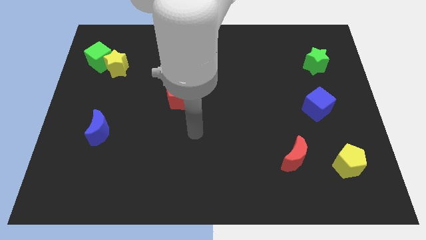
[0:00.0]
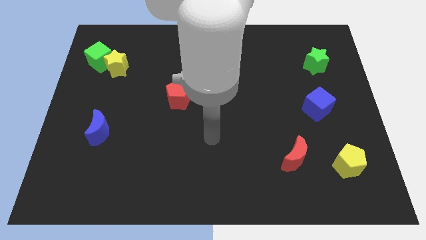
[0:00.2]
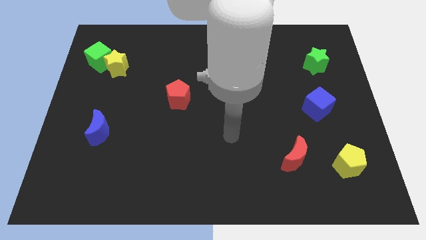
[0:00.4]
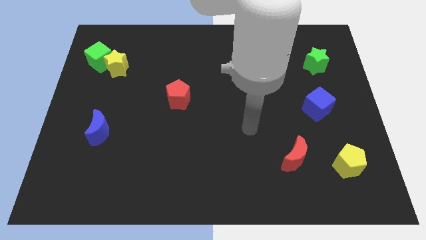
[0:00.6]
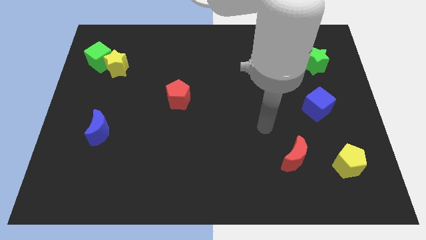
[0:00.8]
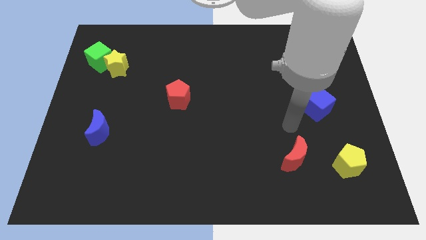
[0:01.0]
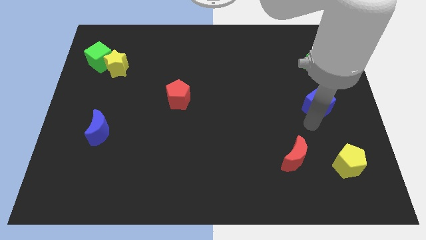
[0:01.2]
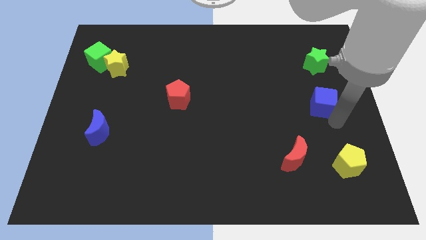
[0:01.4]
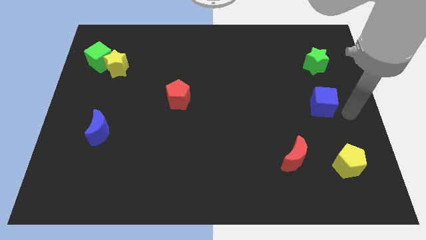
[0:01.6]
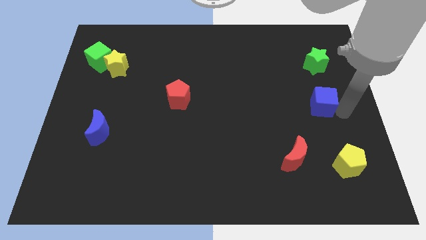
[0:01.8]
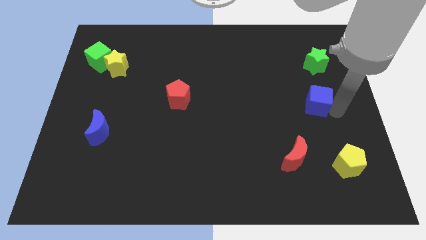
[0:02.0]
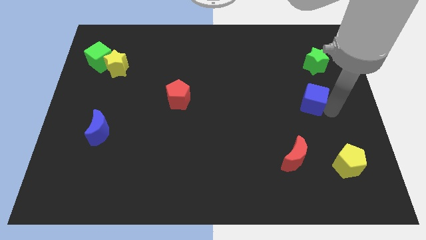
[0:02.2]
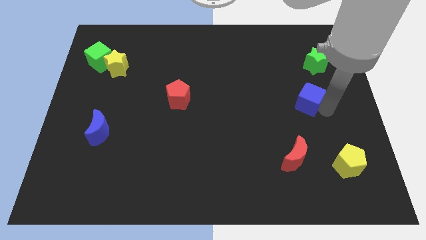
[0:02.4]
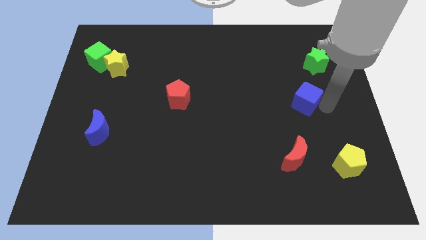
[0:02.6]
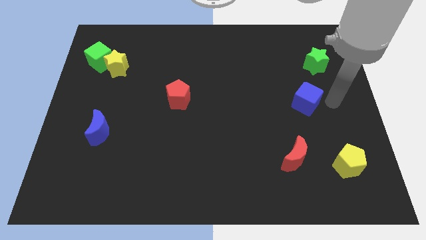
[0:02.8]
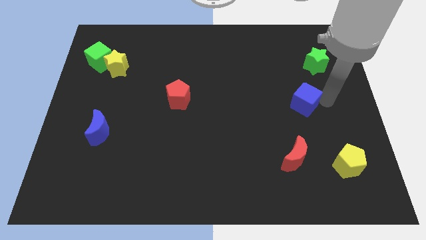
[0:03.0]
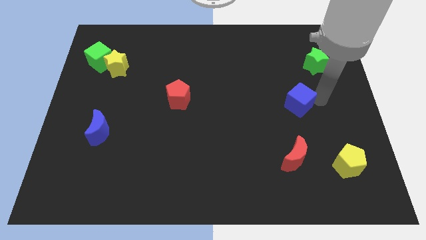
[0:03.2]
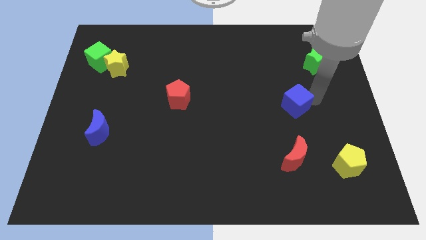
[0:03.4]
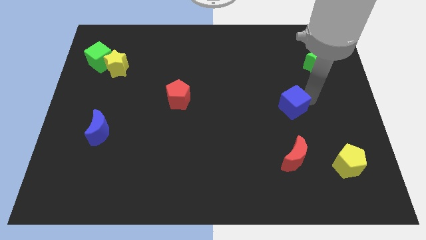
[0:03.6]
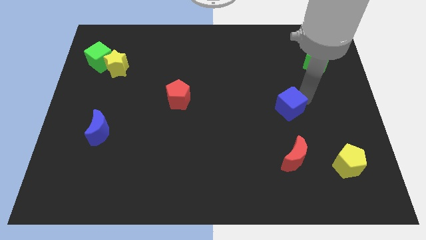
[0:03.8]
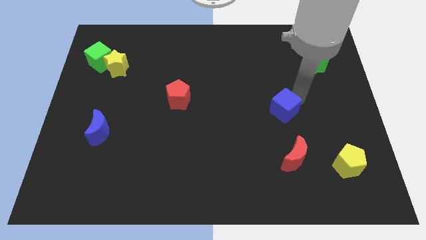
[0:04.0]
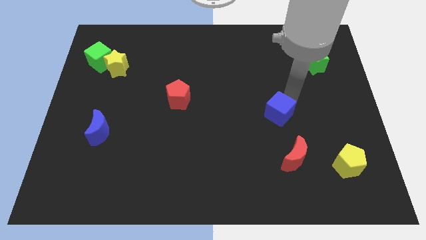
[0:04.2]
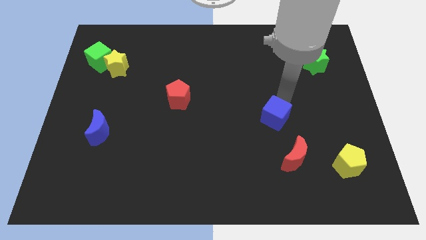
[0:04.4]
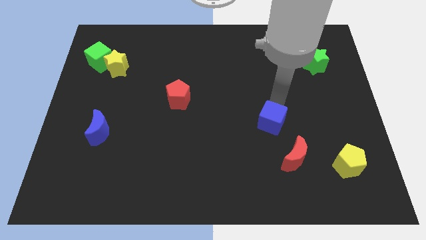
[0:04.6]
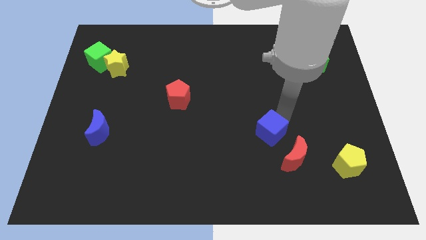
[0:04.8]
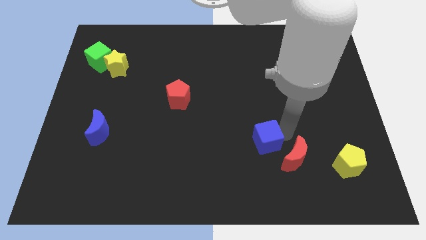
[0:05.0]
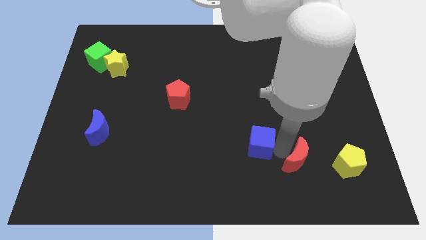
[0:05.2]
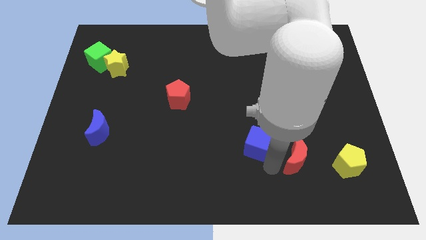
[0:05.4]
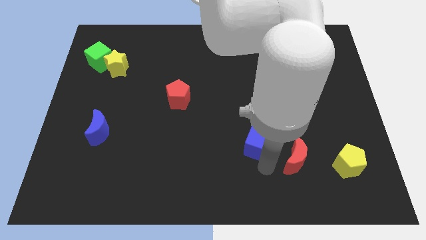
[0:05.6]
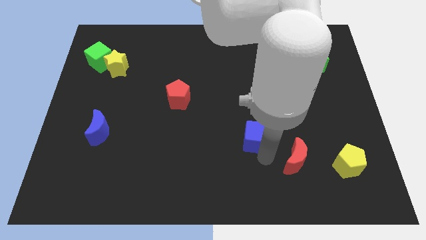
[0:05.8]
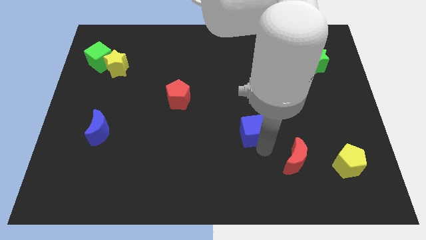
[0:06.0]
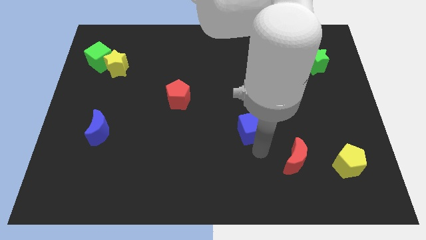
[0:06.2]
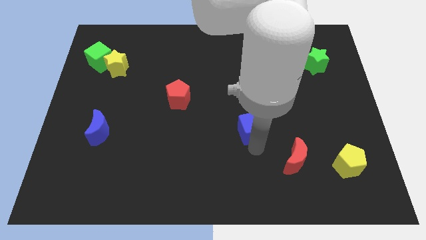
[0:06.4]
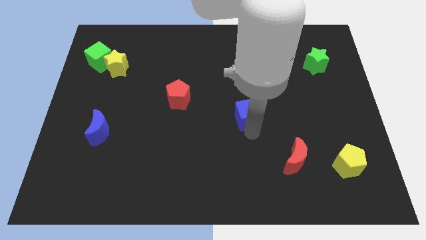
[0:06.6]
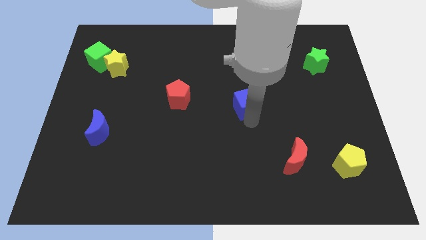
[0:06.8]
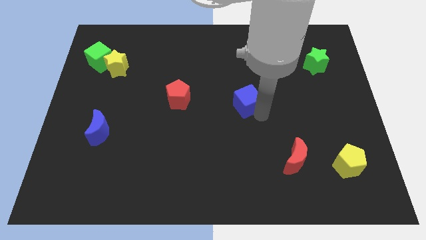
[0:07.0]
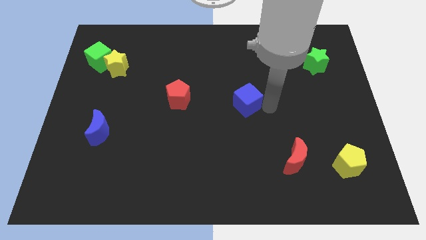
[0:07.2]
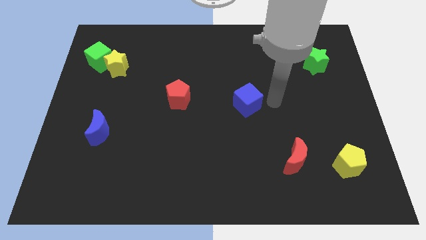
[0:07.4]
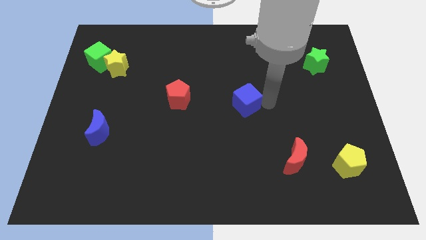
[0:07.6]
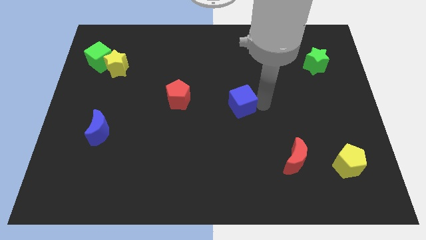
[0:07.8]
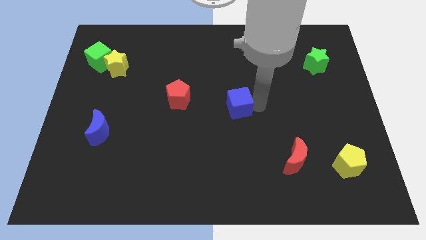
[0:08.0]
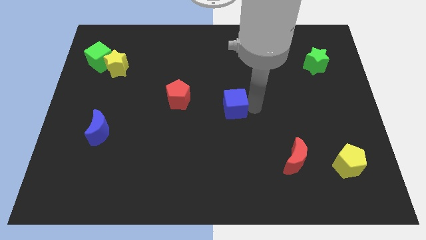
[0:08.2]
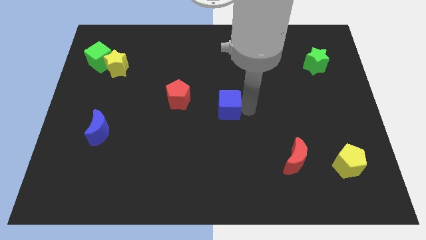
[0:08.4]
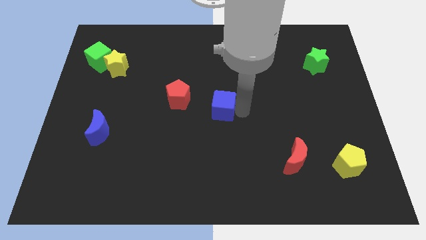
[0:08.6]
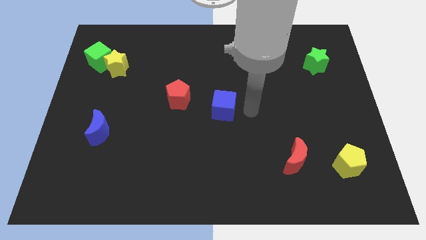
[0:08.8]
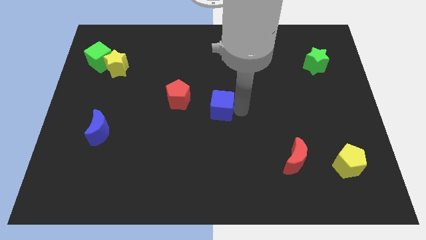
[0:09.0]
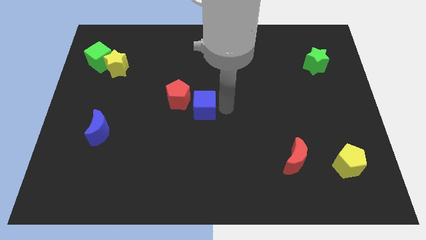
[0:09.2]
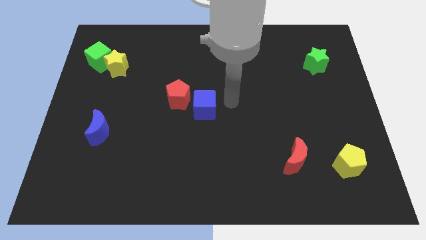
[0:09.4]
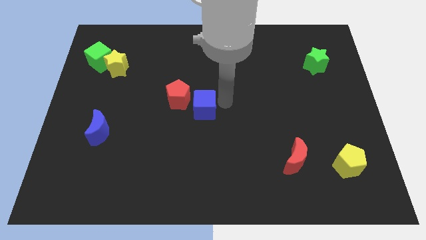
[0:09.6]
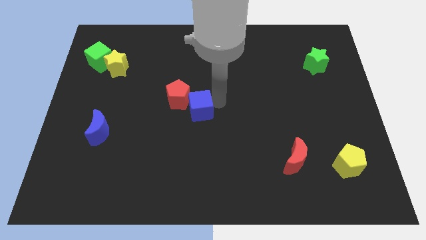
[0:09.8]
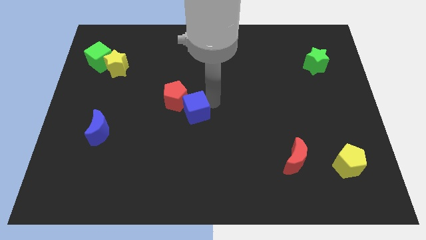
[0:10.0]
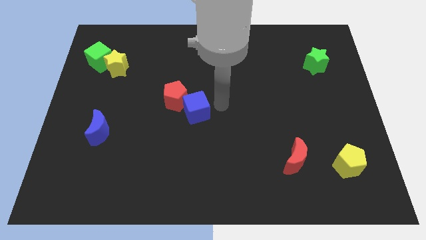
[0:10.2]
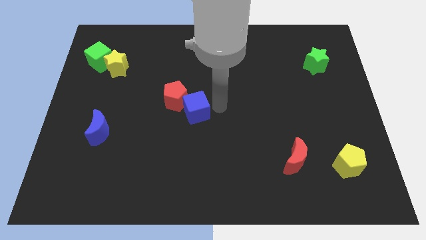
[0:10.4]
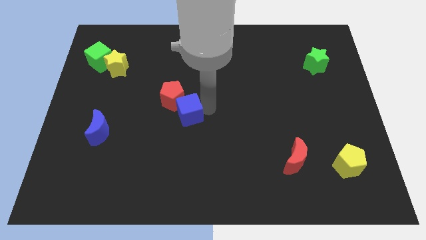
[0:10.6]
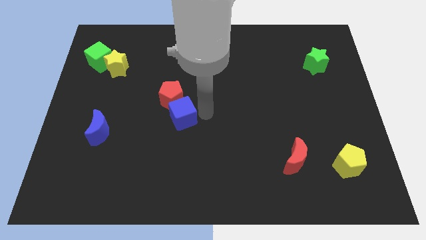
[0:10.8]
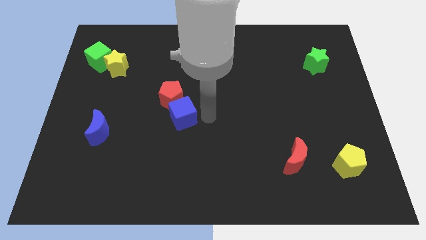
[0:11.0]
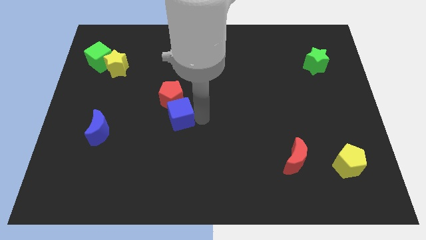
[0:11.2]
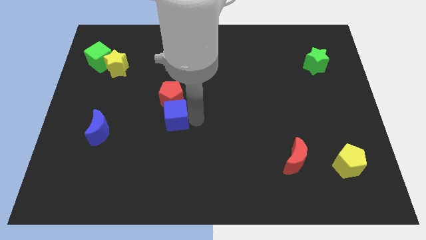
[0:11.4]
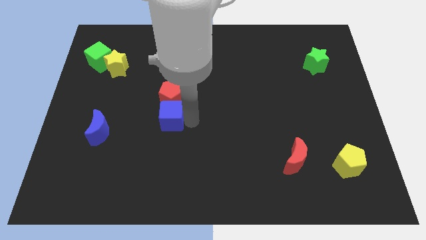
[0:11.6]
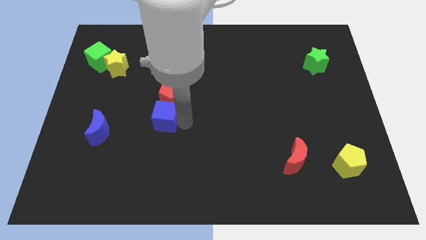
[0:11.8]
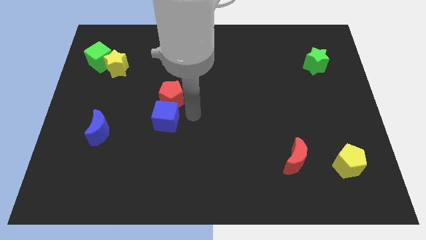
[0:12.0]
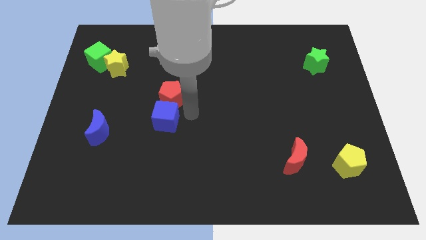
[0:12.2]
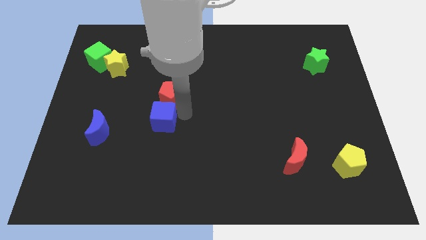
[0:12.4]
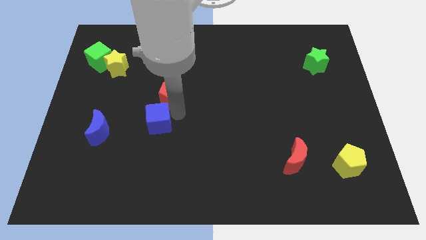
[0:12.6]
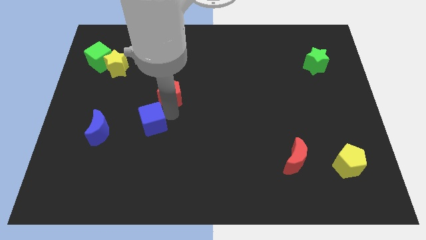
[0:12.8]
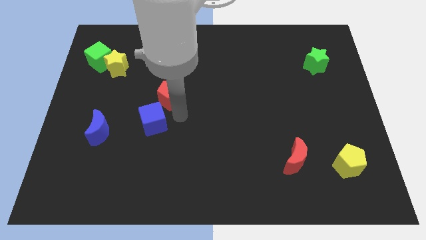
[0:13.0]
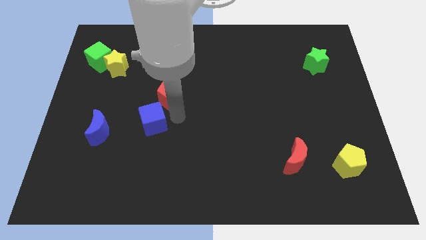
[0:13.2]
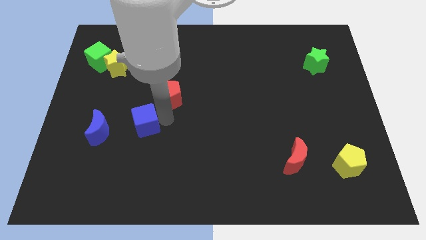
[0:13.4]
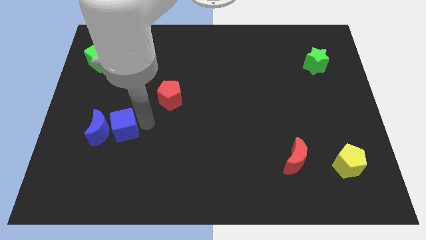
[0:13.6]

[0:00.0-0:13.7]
slide the blue cube to the blue moon
